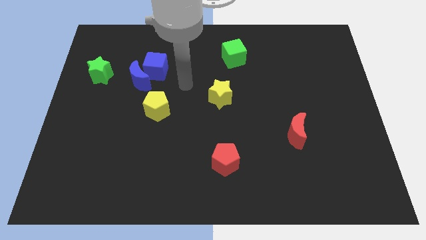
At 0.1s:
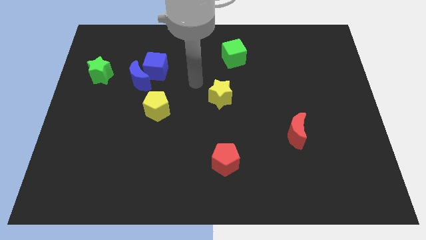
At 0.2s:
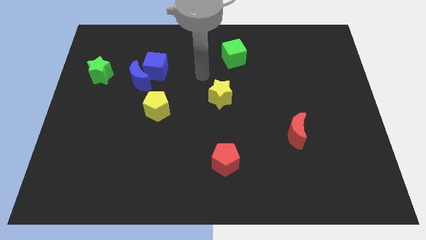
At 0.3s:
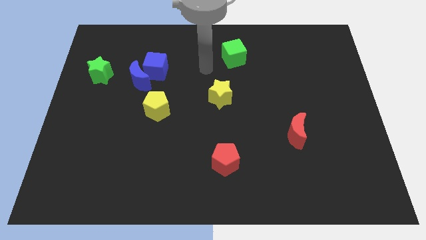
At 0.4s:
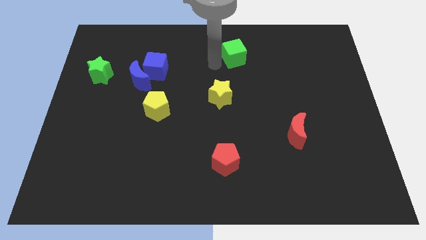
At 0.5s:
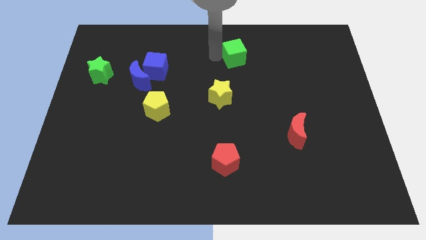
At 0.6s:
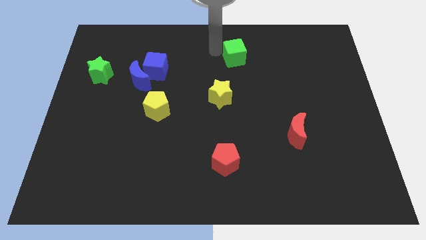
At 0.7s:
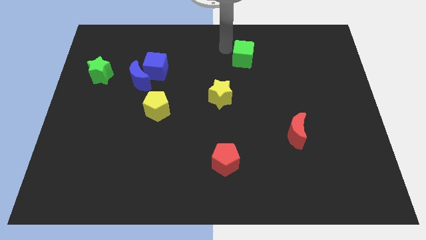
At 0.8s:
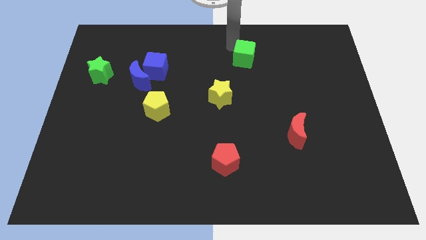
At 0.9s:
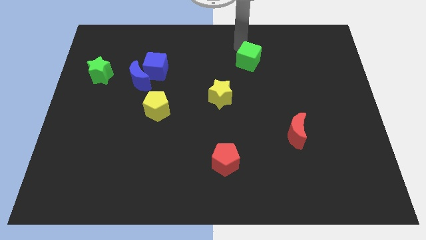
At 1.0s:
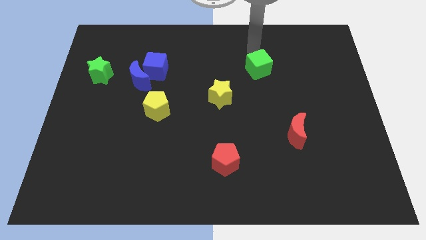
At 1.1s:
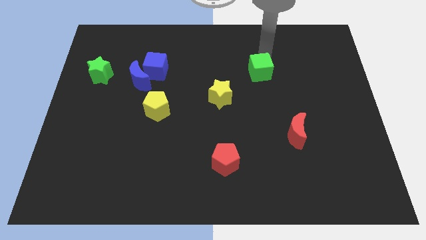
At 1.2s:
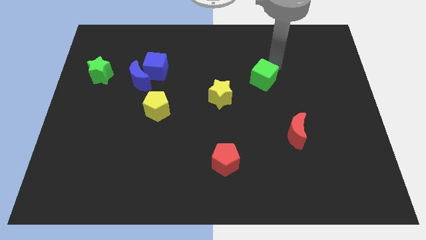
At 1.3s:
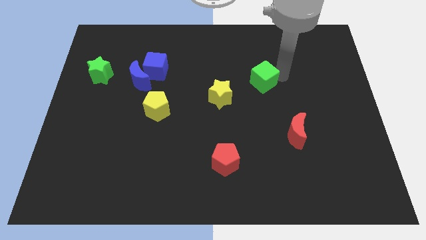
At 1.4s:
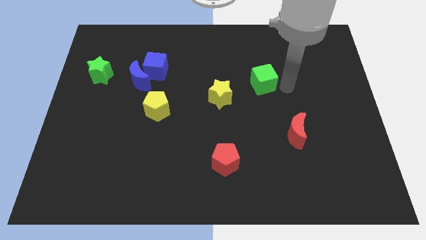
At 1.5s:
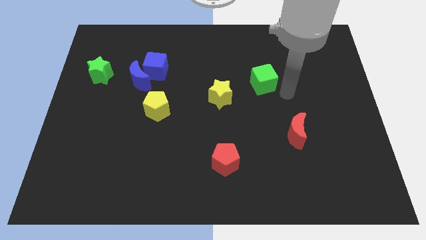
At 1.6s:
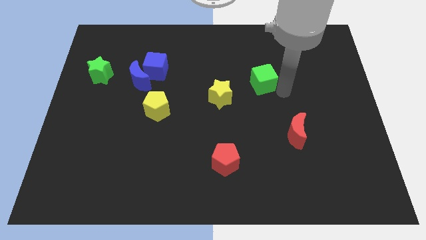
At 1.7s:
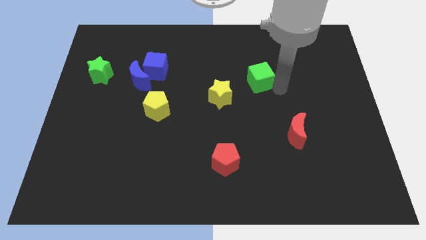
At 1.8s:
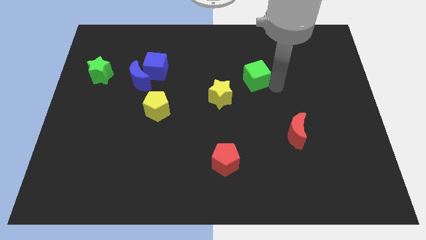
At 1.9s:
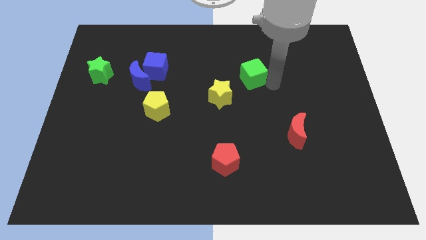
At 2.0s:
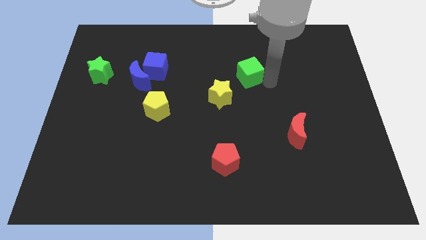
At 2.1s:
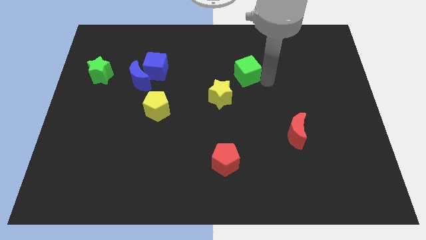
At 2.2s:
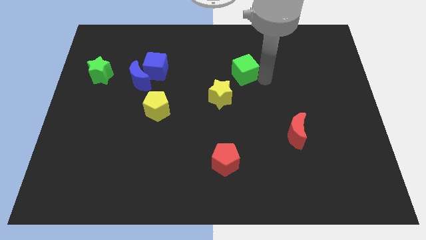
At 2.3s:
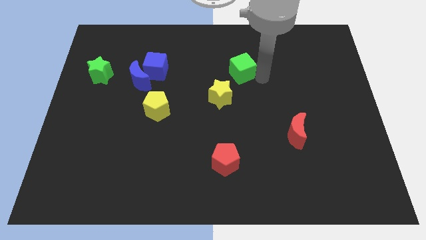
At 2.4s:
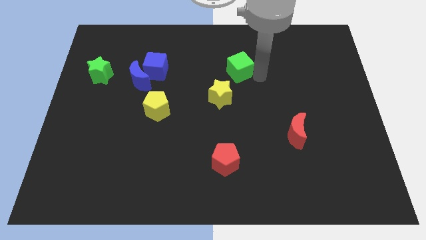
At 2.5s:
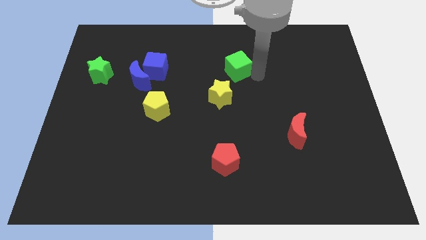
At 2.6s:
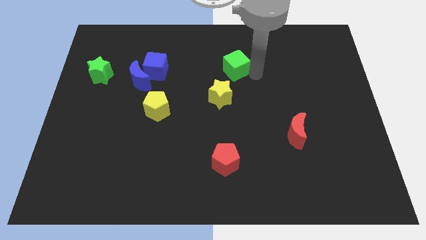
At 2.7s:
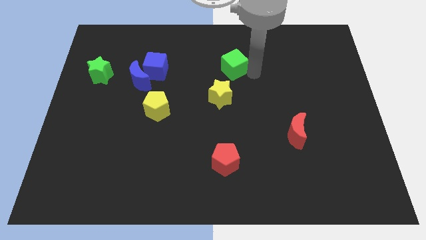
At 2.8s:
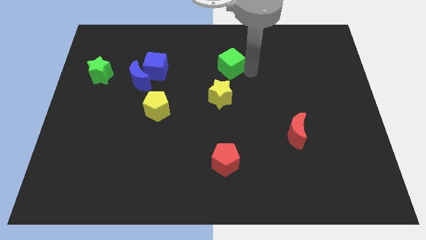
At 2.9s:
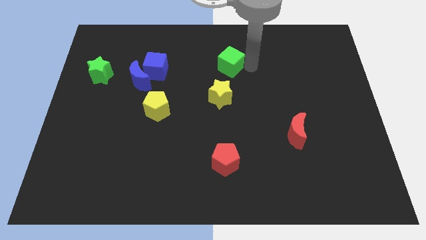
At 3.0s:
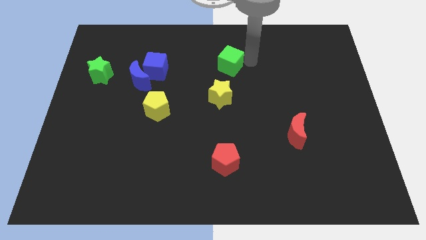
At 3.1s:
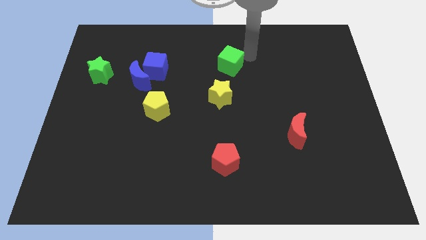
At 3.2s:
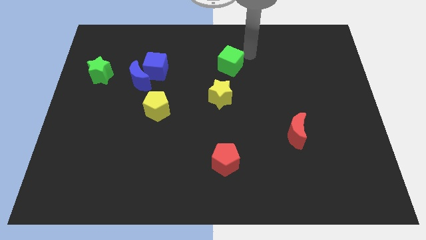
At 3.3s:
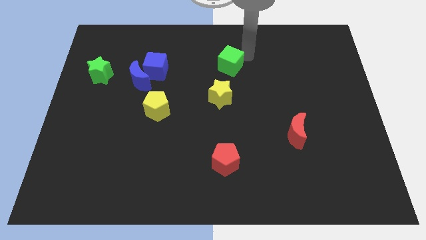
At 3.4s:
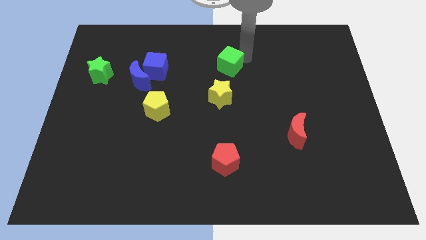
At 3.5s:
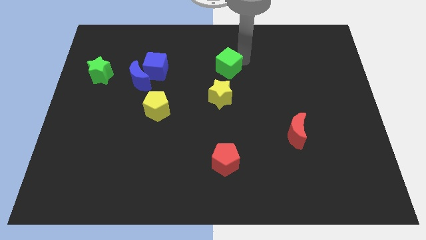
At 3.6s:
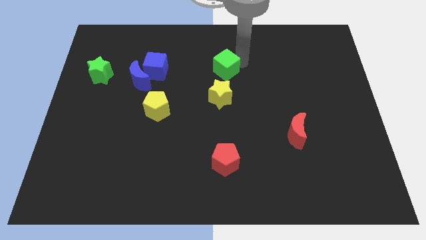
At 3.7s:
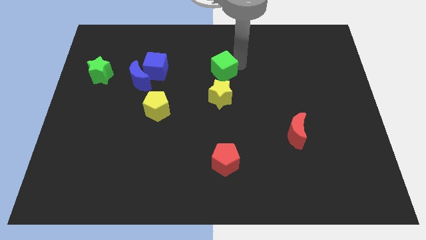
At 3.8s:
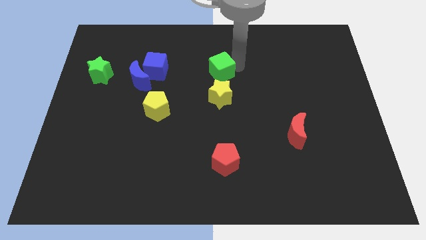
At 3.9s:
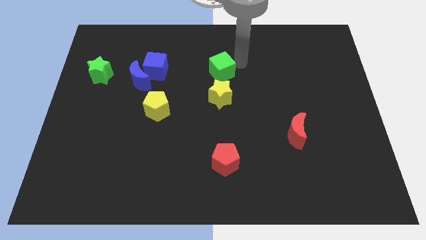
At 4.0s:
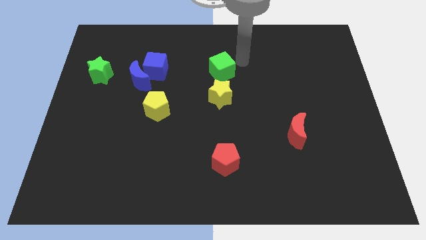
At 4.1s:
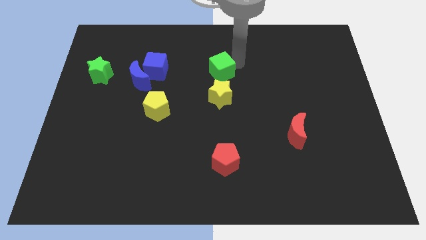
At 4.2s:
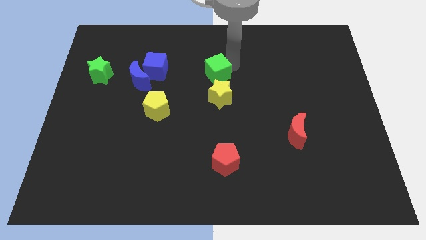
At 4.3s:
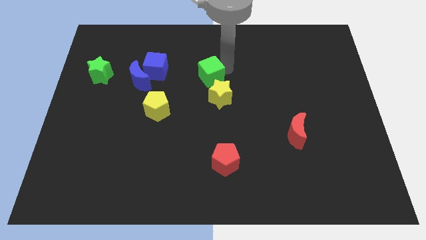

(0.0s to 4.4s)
move the green cube diagonally up and to the left of the yellow star

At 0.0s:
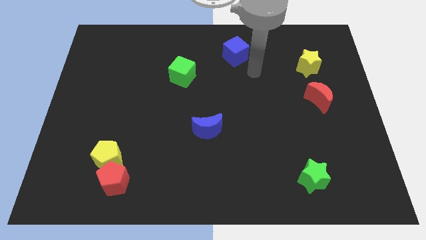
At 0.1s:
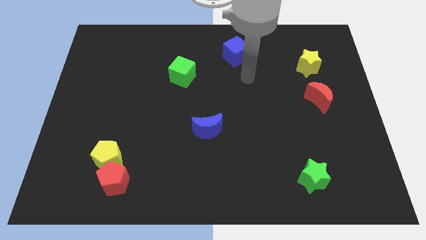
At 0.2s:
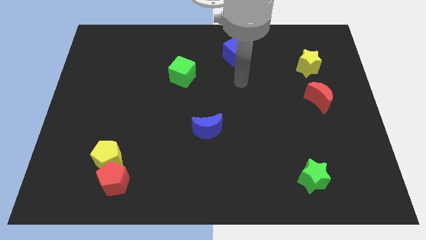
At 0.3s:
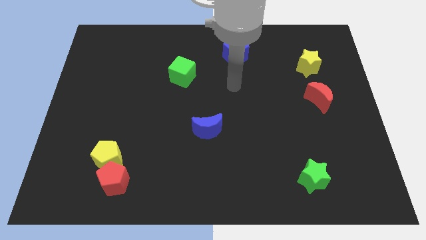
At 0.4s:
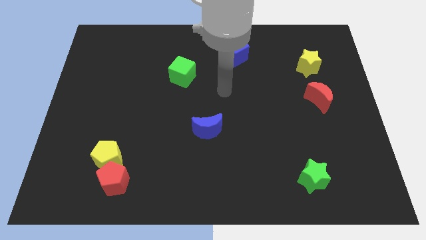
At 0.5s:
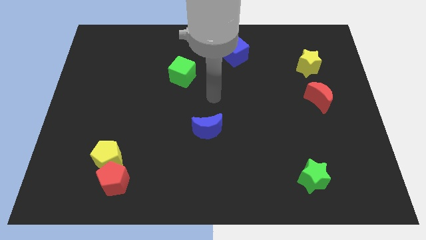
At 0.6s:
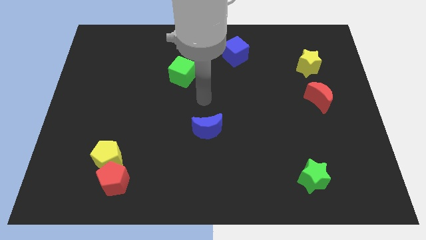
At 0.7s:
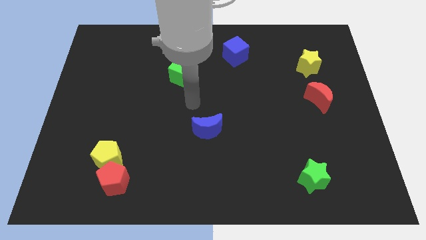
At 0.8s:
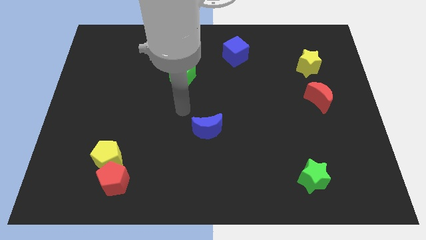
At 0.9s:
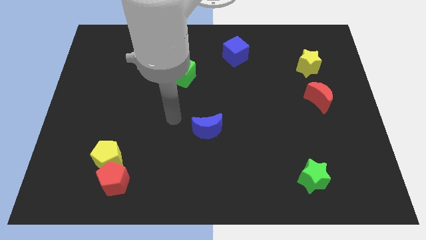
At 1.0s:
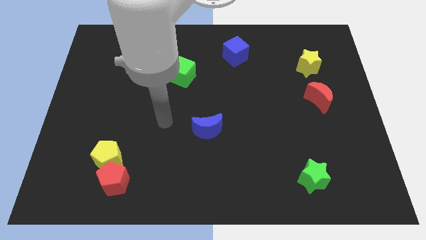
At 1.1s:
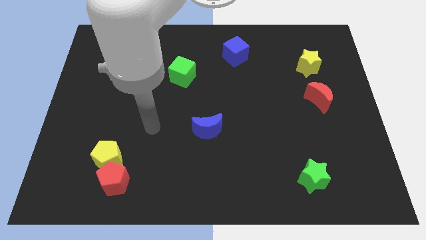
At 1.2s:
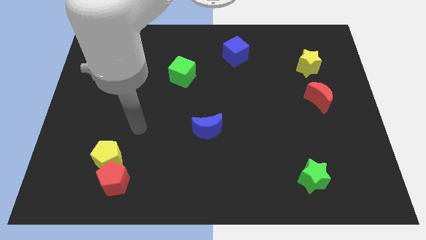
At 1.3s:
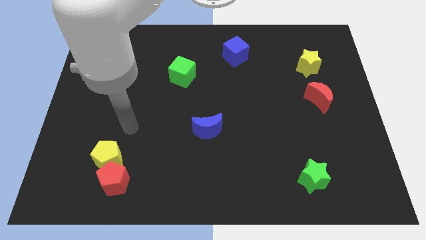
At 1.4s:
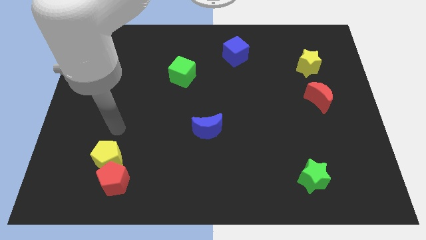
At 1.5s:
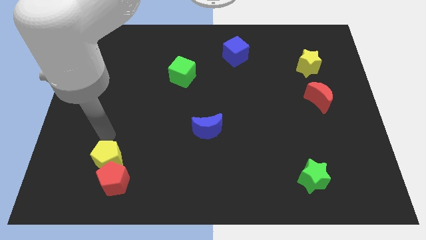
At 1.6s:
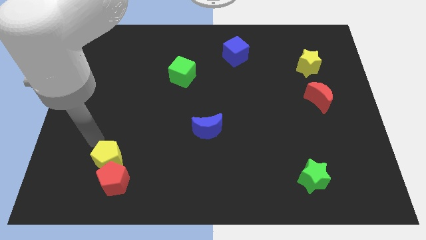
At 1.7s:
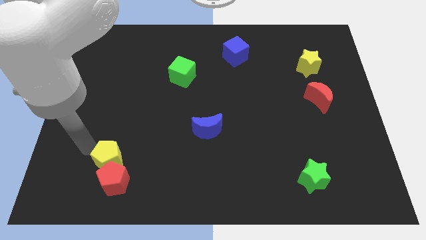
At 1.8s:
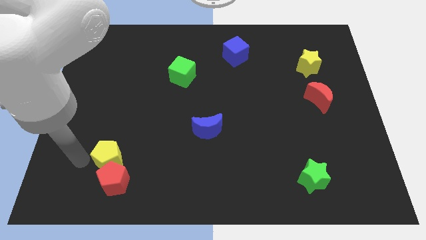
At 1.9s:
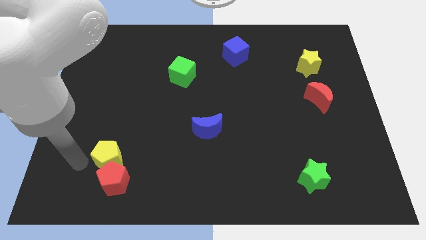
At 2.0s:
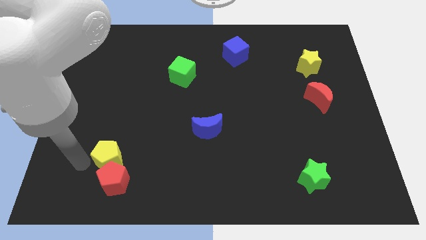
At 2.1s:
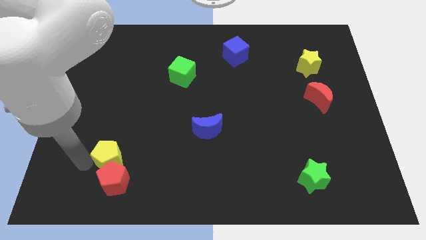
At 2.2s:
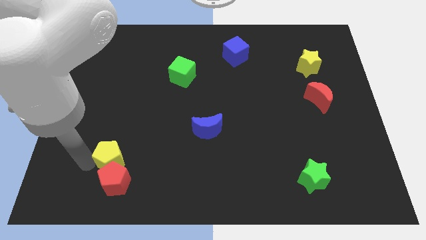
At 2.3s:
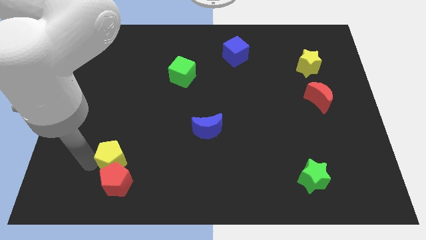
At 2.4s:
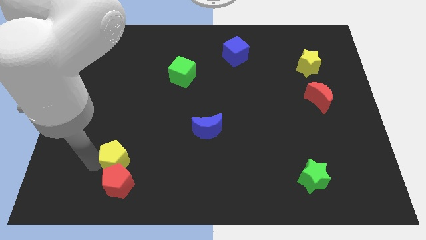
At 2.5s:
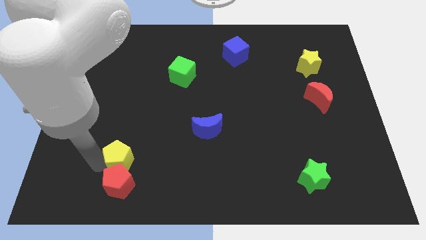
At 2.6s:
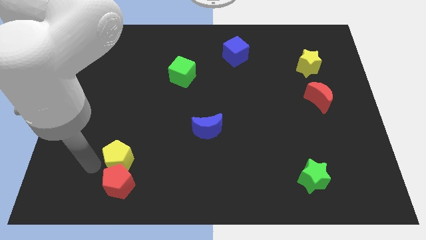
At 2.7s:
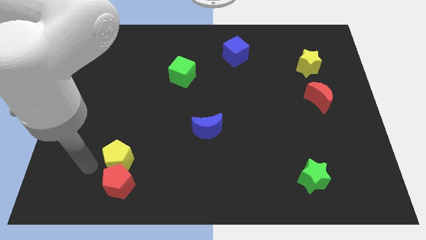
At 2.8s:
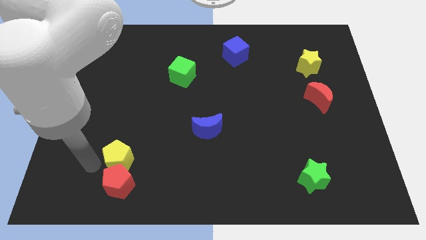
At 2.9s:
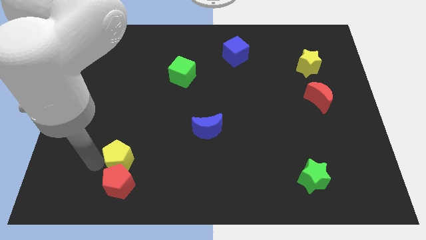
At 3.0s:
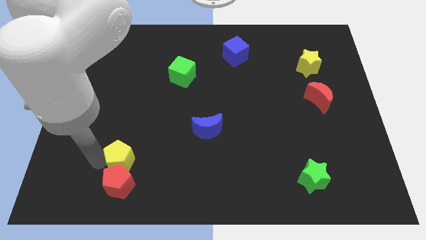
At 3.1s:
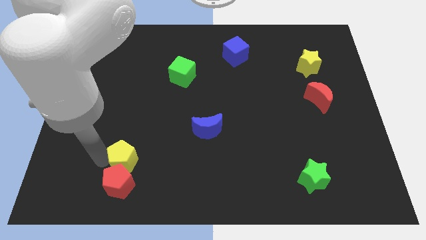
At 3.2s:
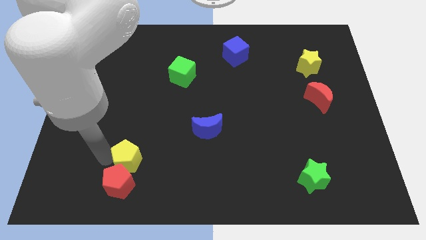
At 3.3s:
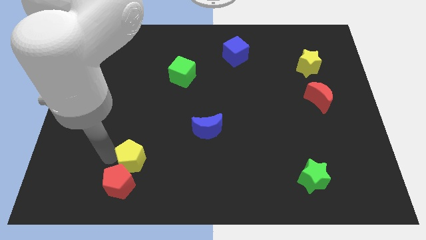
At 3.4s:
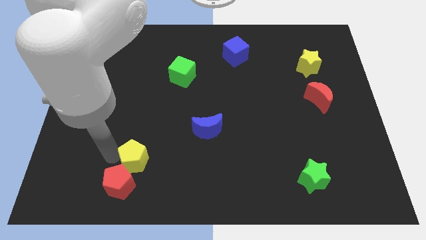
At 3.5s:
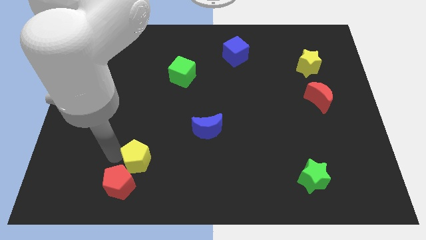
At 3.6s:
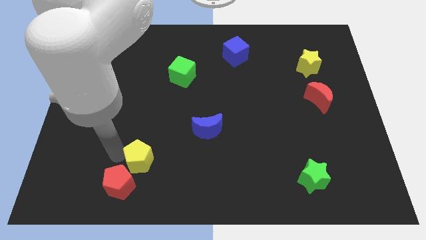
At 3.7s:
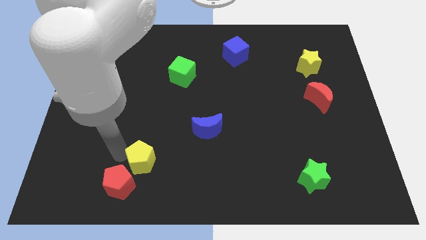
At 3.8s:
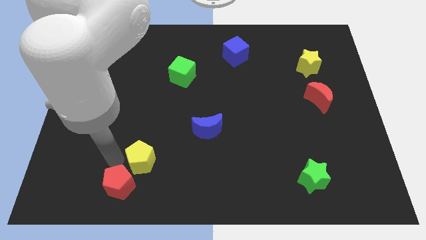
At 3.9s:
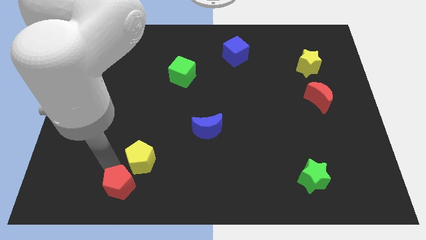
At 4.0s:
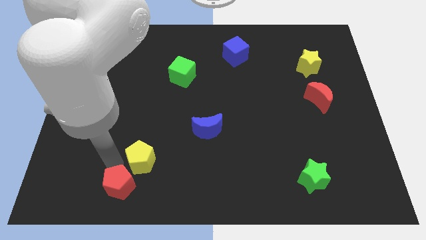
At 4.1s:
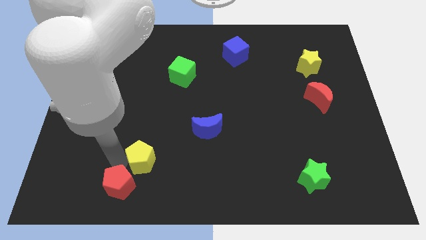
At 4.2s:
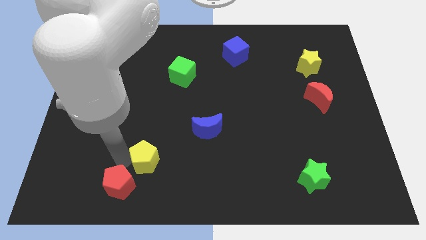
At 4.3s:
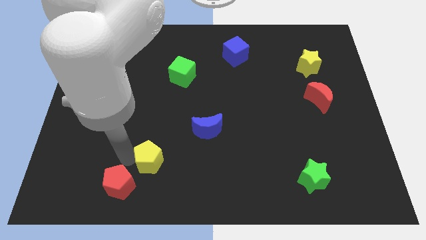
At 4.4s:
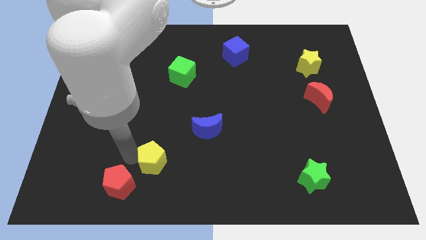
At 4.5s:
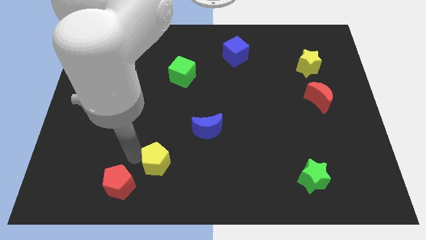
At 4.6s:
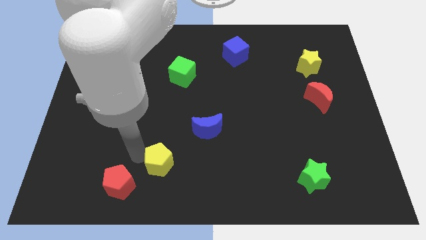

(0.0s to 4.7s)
move the yellow pentagon to the bottom left side of the blue moon
